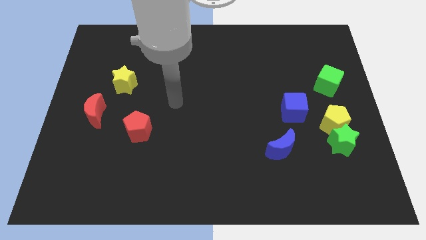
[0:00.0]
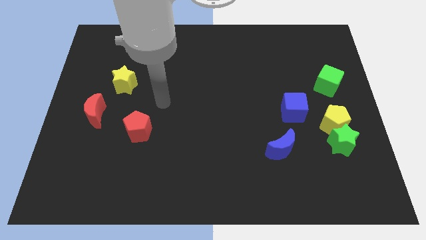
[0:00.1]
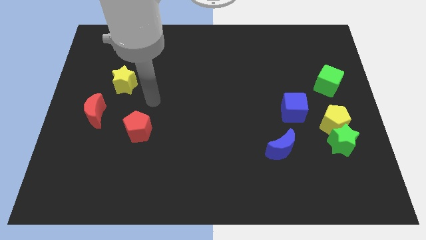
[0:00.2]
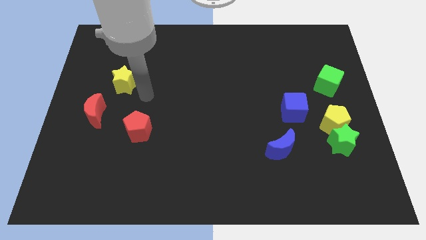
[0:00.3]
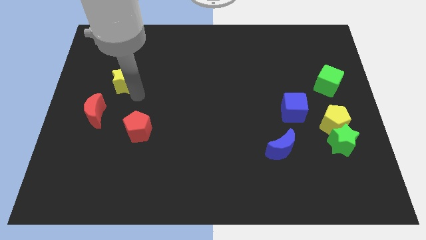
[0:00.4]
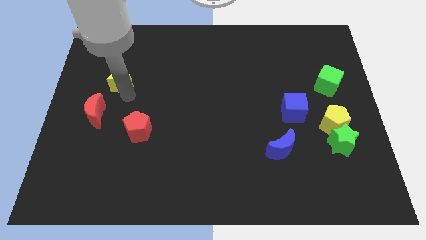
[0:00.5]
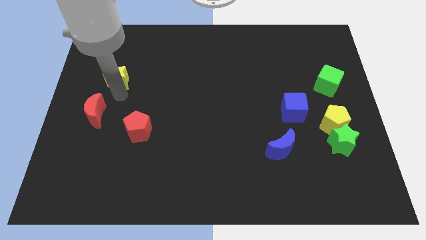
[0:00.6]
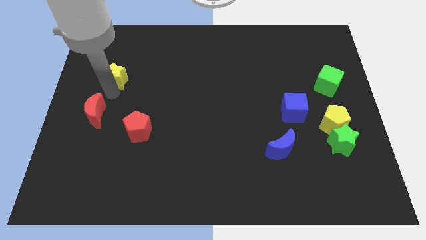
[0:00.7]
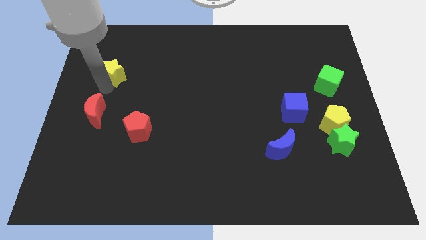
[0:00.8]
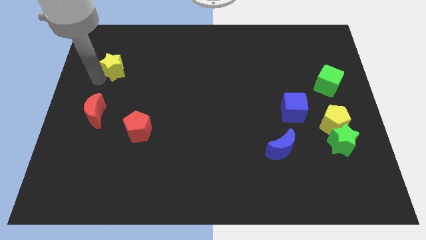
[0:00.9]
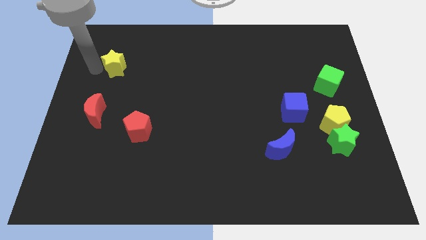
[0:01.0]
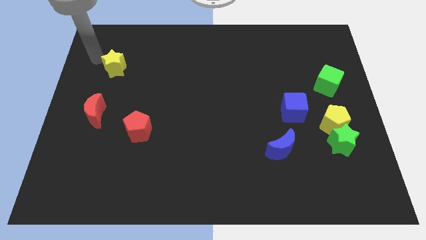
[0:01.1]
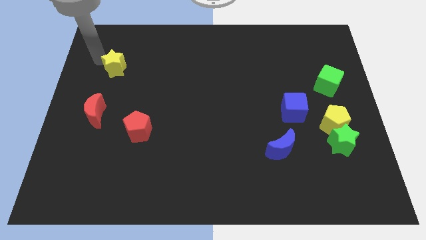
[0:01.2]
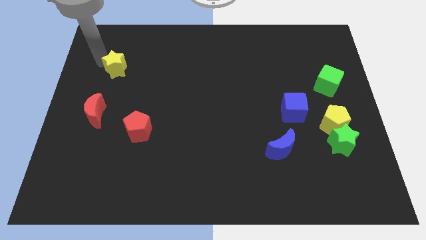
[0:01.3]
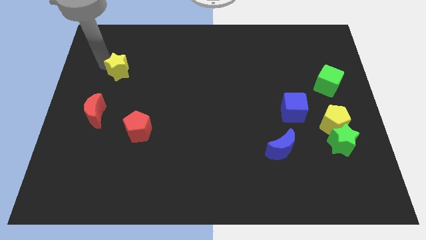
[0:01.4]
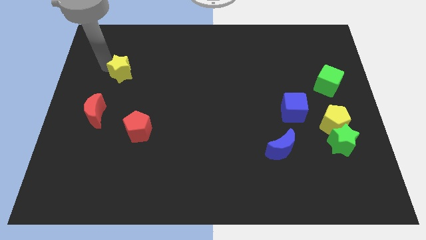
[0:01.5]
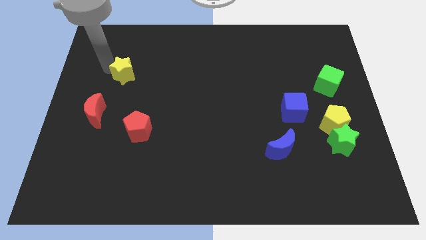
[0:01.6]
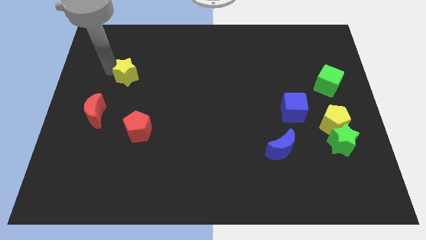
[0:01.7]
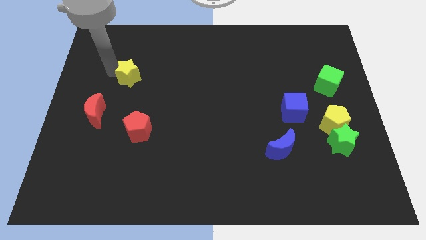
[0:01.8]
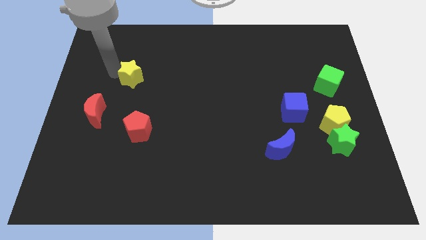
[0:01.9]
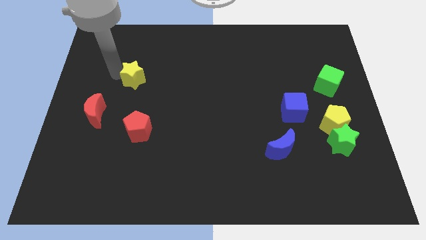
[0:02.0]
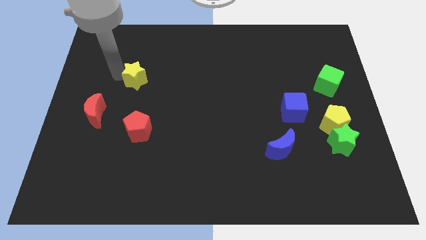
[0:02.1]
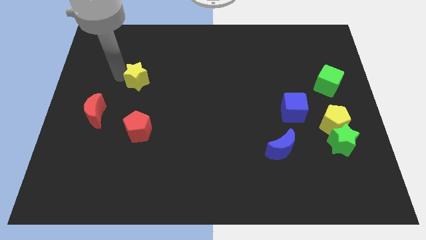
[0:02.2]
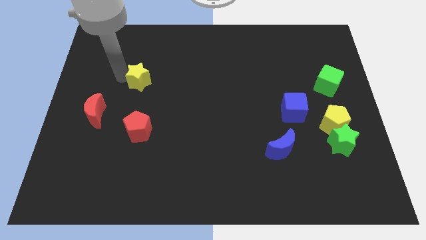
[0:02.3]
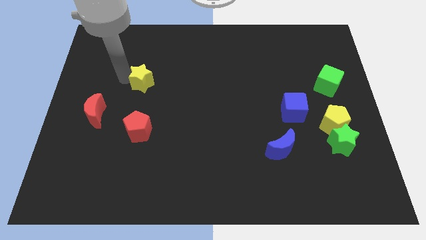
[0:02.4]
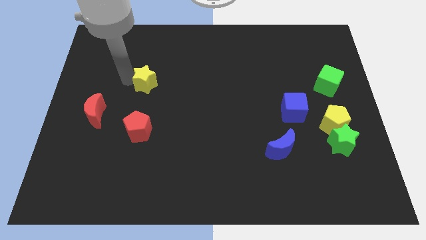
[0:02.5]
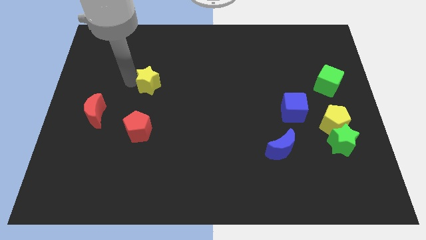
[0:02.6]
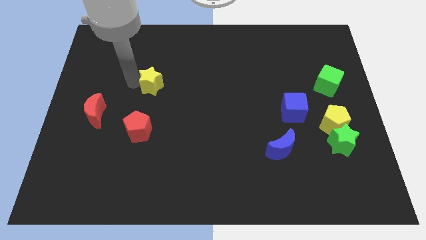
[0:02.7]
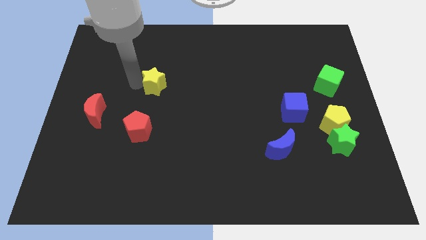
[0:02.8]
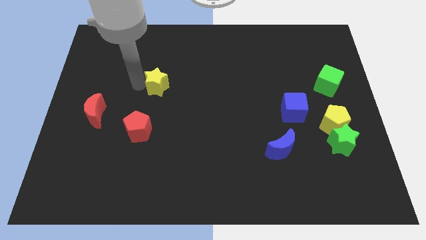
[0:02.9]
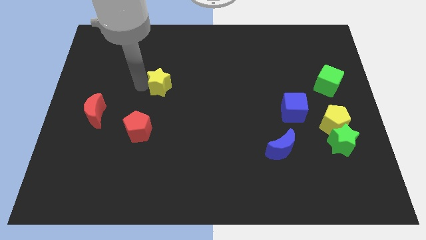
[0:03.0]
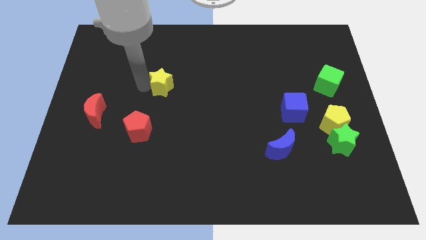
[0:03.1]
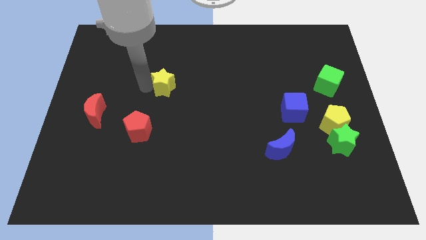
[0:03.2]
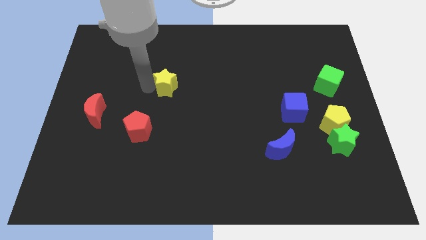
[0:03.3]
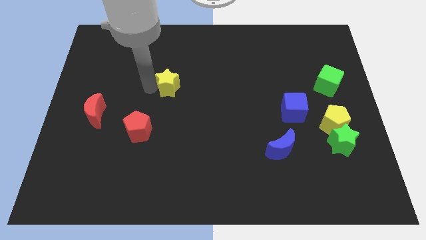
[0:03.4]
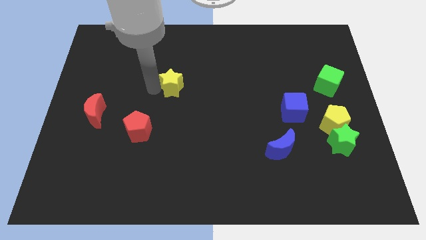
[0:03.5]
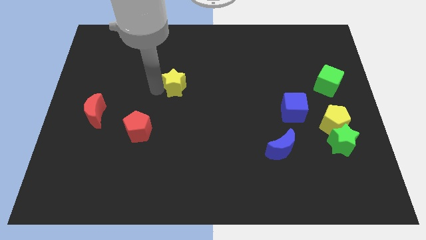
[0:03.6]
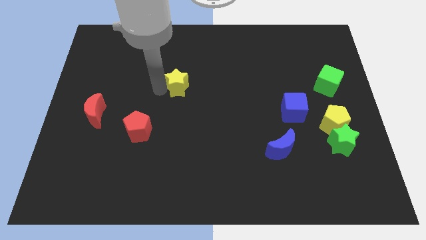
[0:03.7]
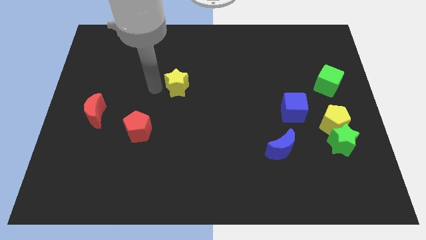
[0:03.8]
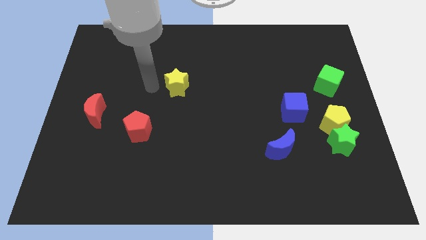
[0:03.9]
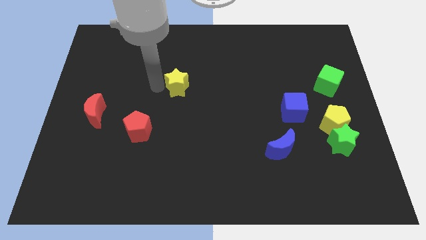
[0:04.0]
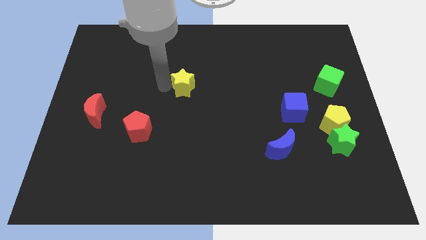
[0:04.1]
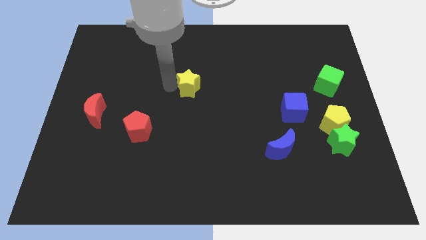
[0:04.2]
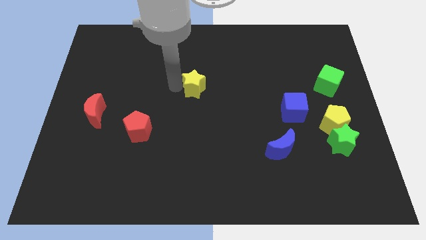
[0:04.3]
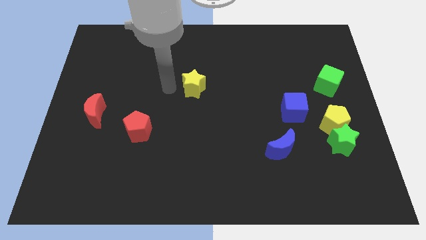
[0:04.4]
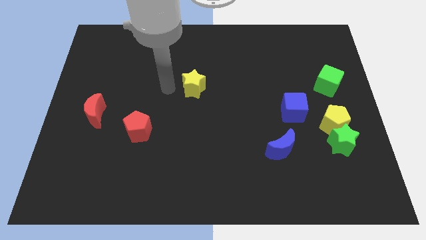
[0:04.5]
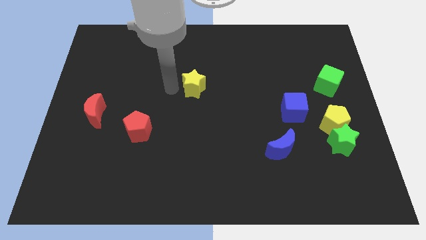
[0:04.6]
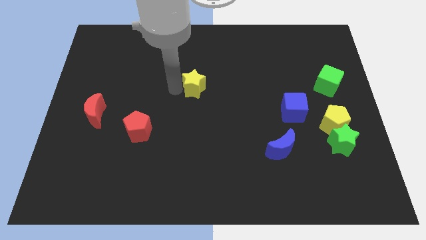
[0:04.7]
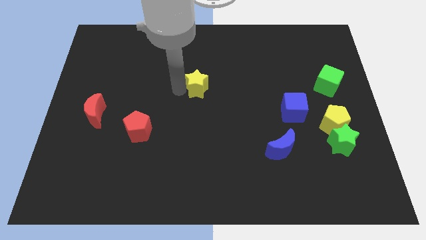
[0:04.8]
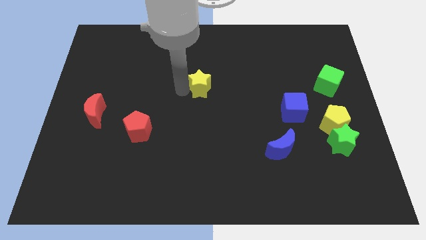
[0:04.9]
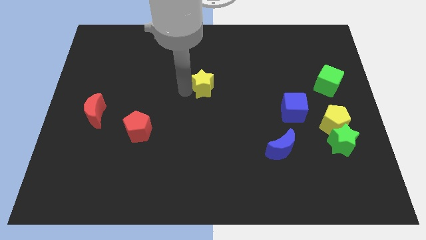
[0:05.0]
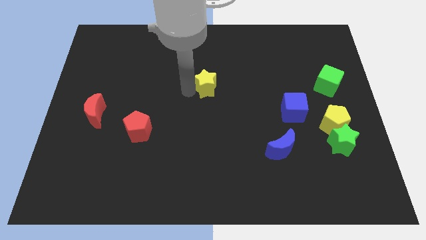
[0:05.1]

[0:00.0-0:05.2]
push the yellow star right

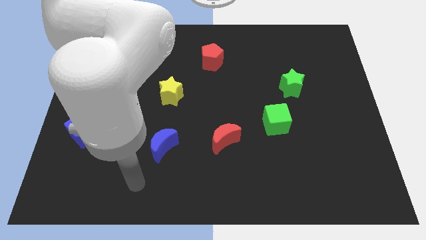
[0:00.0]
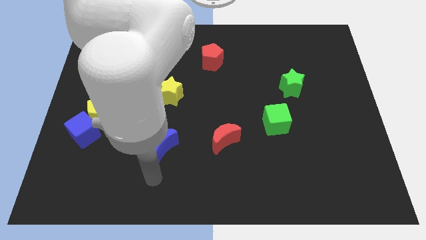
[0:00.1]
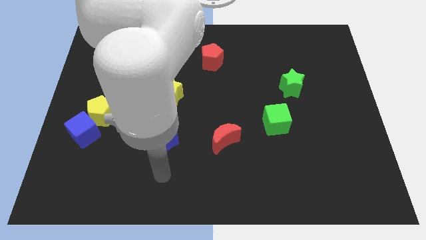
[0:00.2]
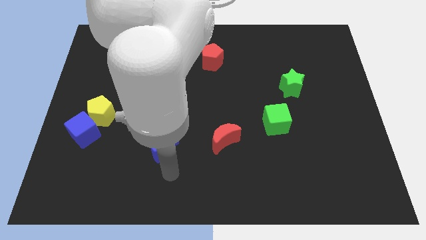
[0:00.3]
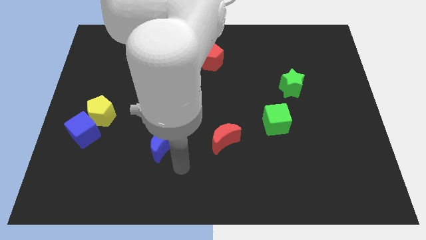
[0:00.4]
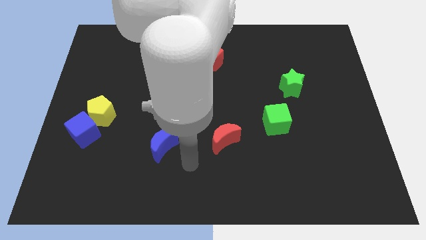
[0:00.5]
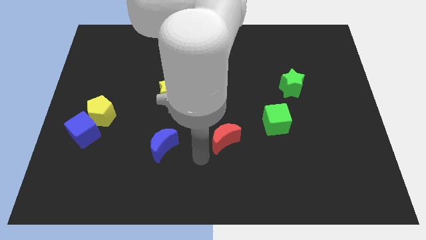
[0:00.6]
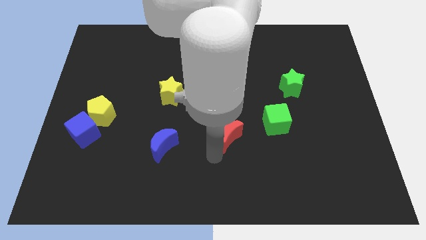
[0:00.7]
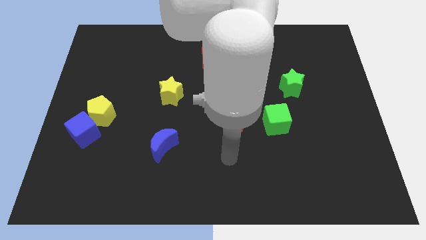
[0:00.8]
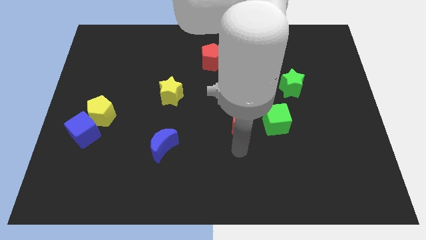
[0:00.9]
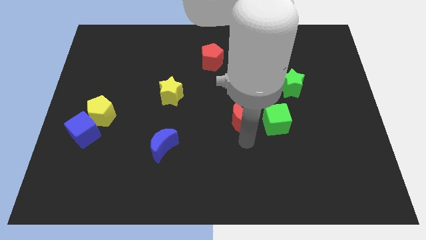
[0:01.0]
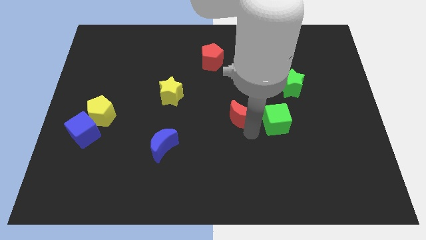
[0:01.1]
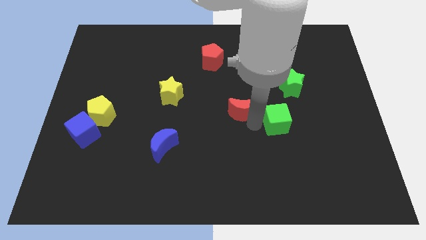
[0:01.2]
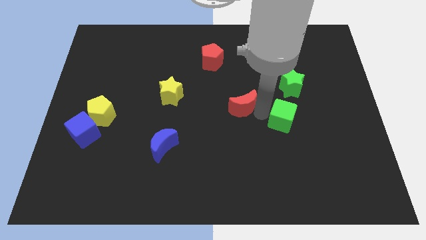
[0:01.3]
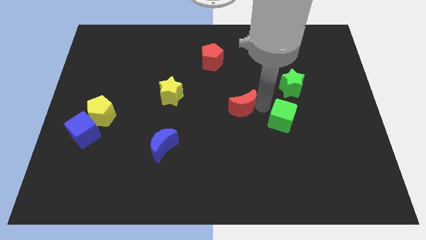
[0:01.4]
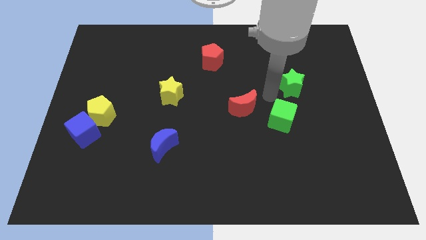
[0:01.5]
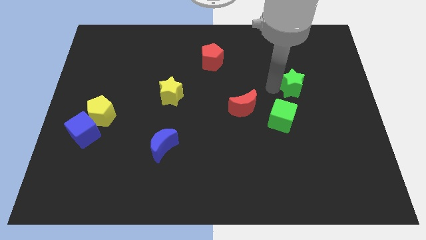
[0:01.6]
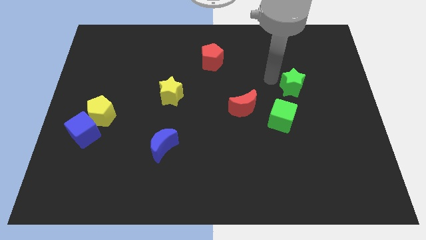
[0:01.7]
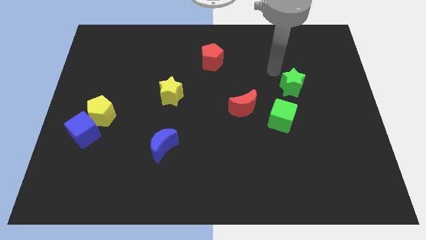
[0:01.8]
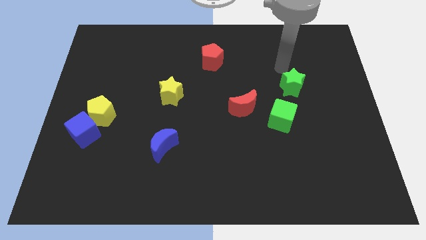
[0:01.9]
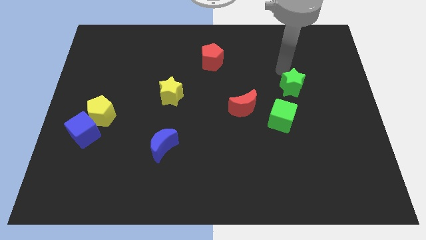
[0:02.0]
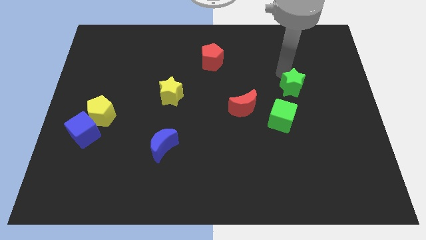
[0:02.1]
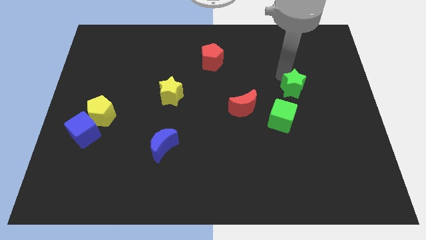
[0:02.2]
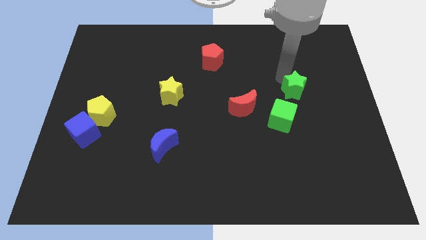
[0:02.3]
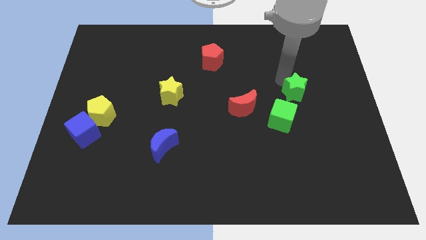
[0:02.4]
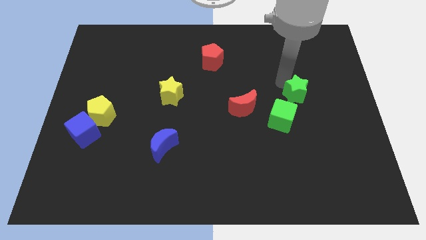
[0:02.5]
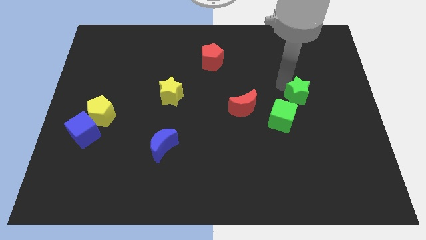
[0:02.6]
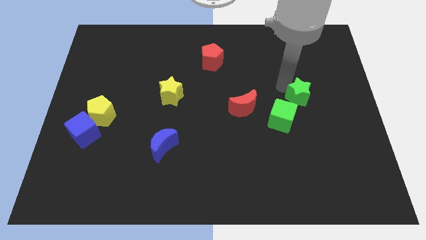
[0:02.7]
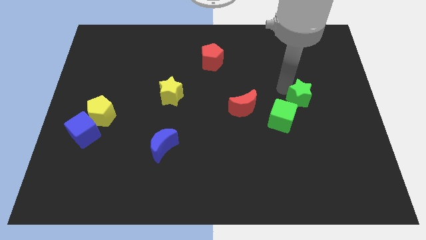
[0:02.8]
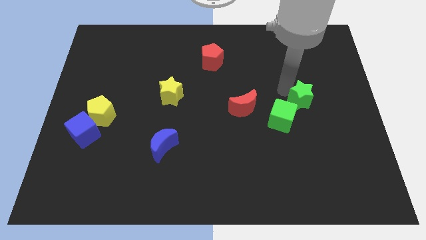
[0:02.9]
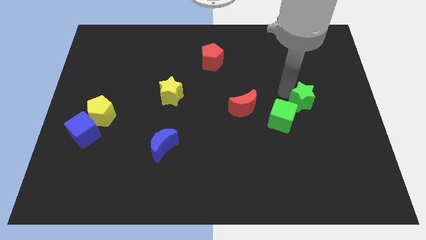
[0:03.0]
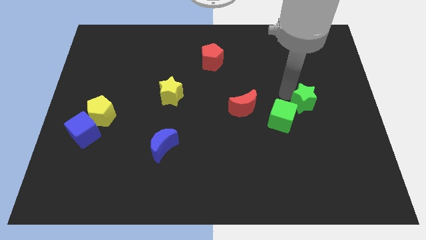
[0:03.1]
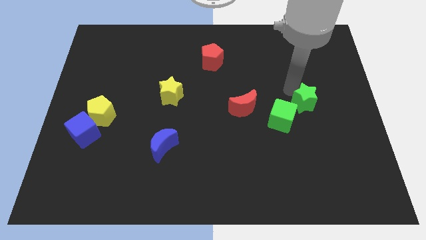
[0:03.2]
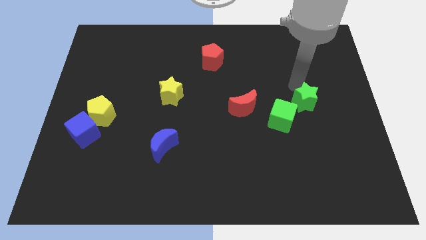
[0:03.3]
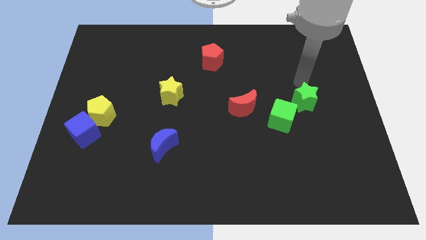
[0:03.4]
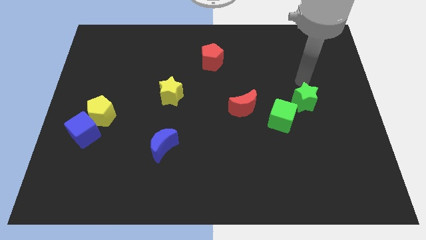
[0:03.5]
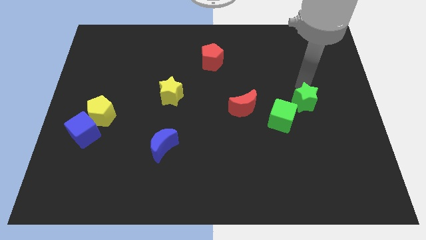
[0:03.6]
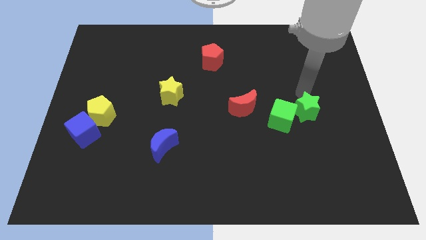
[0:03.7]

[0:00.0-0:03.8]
slide the green star a bit downwards
